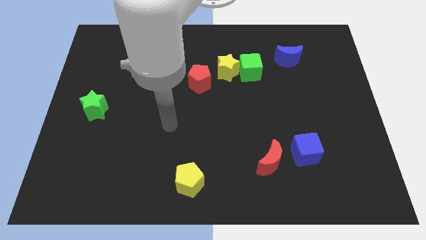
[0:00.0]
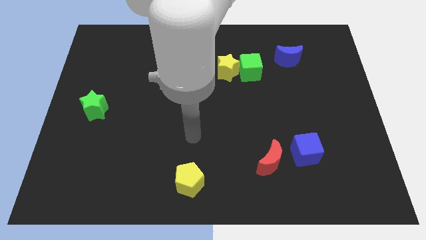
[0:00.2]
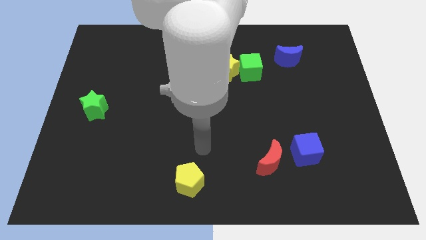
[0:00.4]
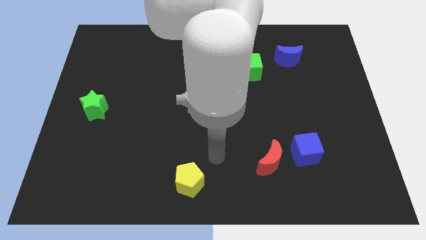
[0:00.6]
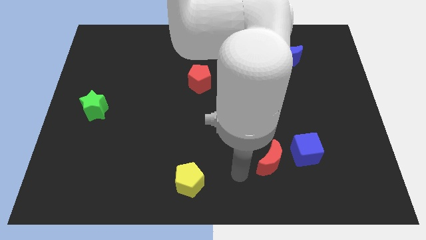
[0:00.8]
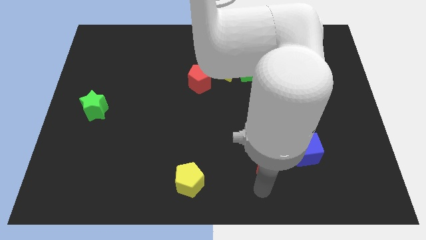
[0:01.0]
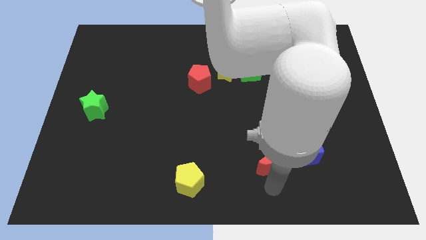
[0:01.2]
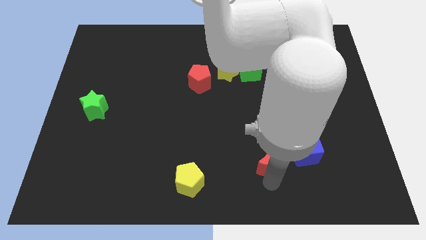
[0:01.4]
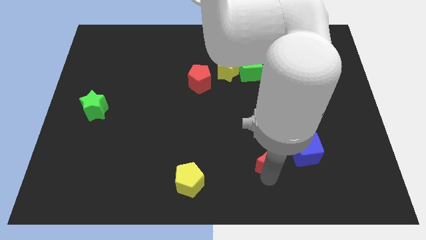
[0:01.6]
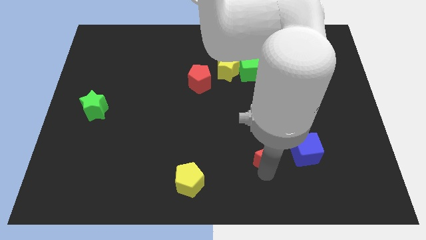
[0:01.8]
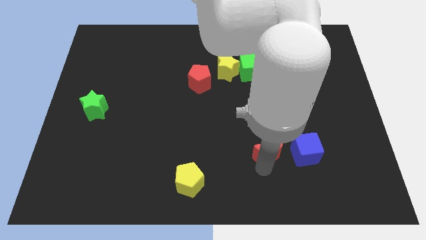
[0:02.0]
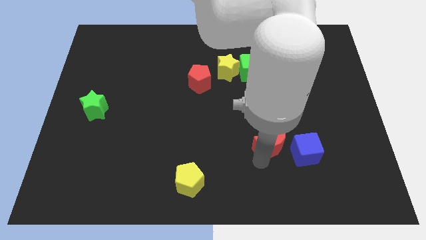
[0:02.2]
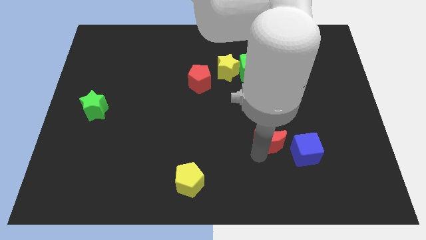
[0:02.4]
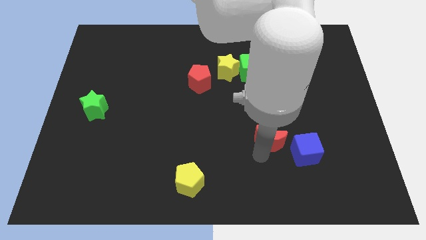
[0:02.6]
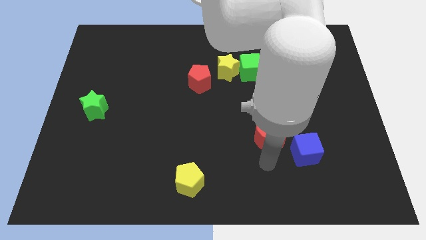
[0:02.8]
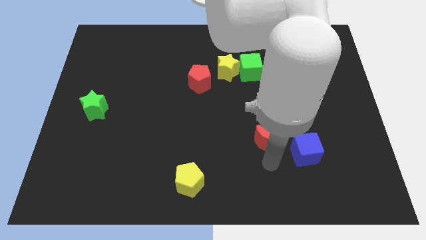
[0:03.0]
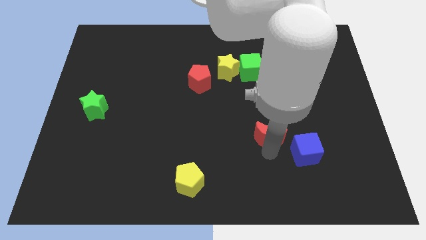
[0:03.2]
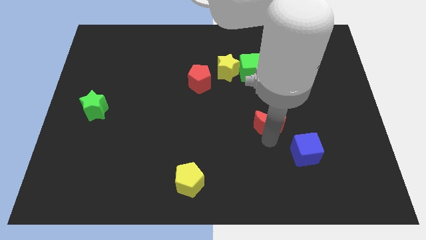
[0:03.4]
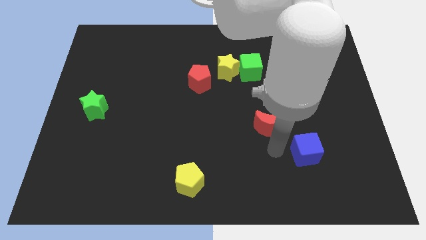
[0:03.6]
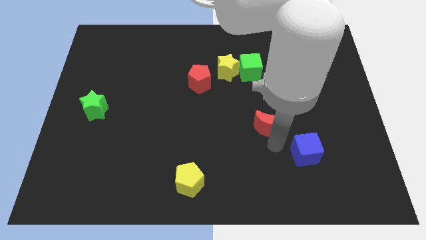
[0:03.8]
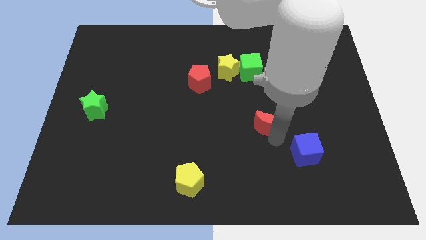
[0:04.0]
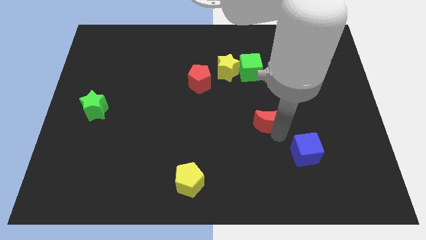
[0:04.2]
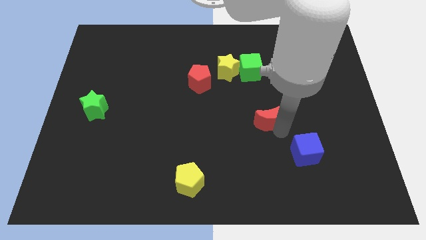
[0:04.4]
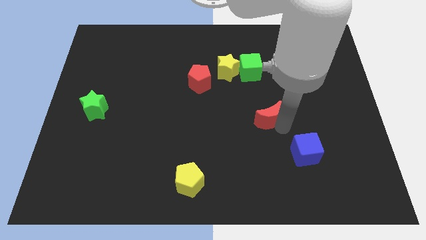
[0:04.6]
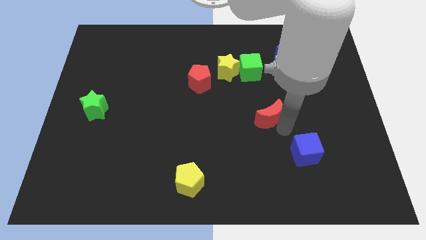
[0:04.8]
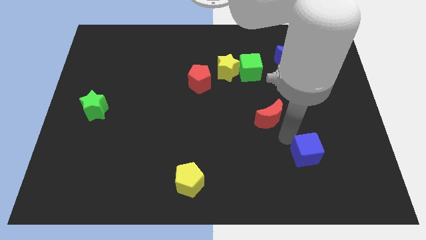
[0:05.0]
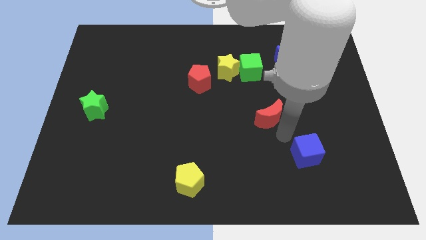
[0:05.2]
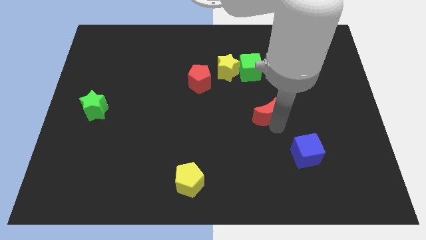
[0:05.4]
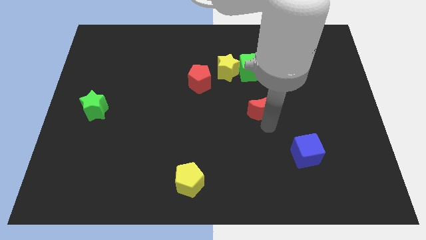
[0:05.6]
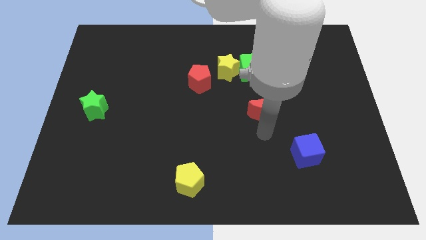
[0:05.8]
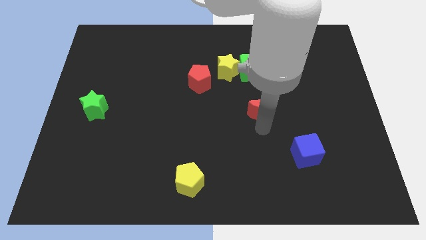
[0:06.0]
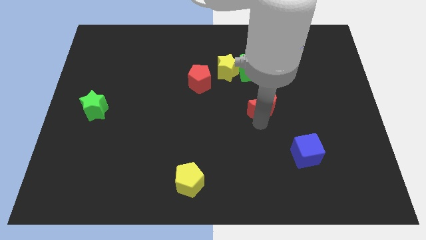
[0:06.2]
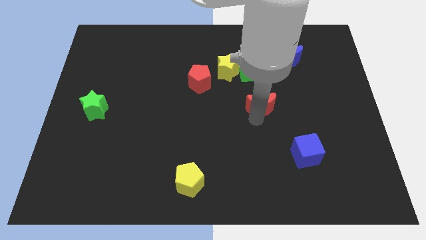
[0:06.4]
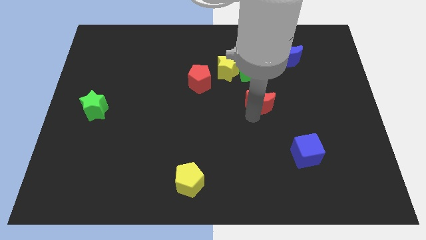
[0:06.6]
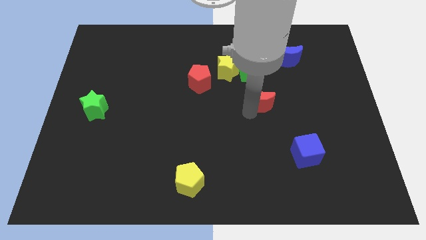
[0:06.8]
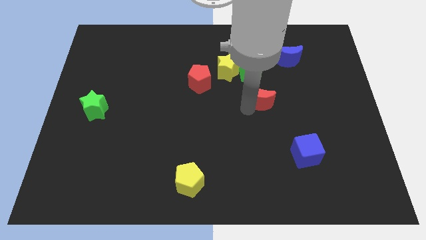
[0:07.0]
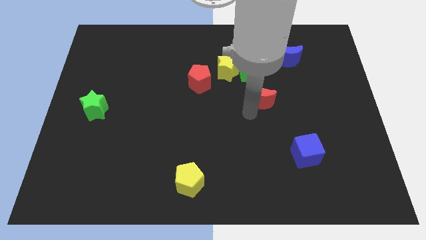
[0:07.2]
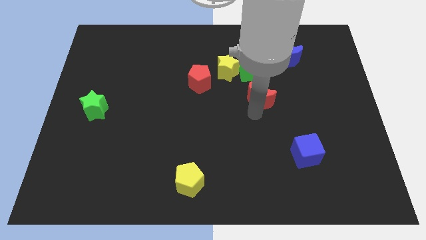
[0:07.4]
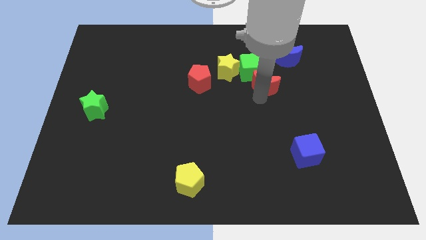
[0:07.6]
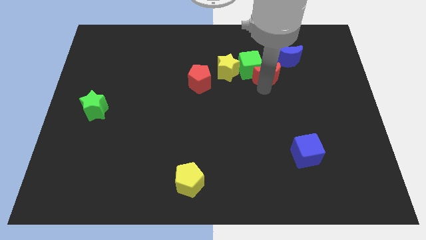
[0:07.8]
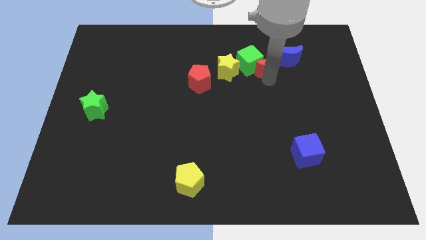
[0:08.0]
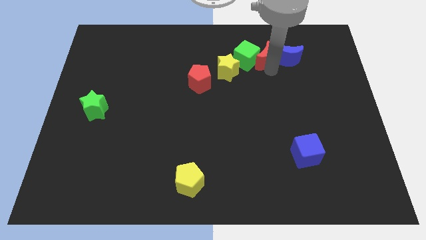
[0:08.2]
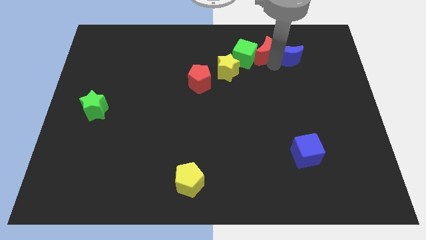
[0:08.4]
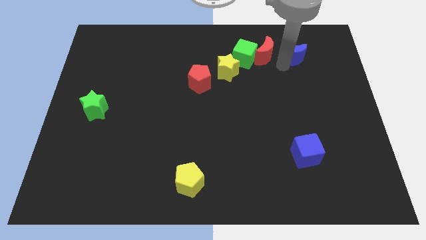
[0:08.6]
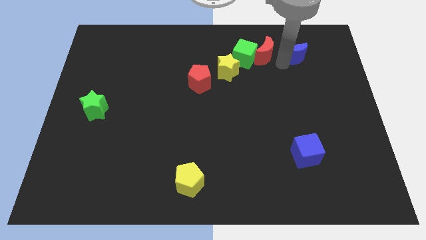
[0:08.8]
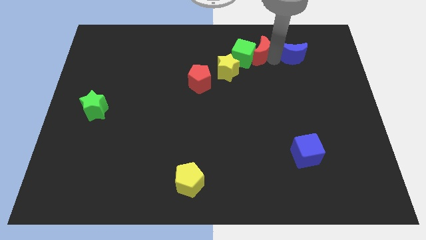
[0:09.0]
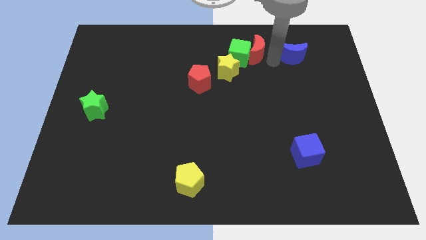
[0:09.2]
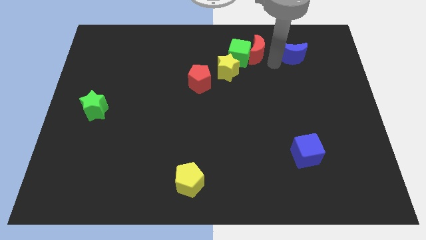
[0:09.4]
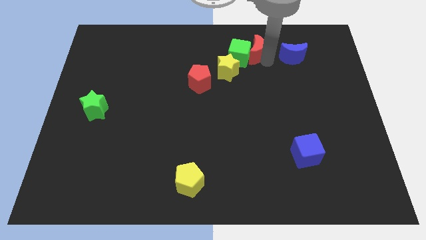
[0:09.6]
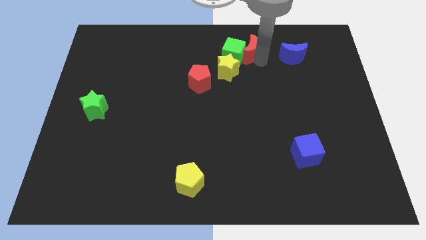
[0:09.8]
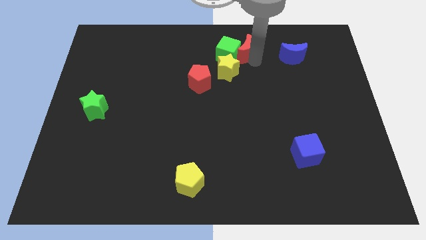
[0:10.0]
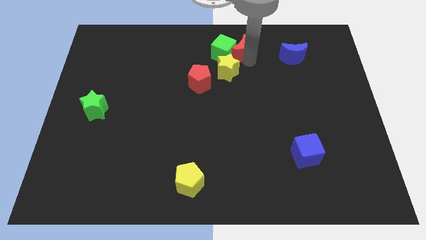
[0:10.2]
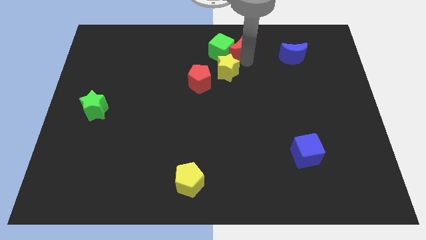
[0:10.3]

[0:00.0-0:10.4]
slide the red moon to the top side

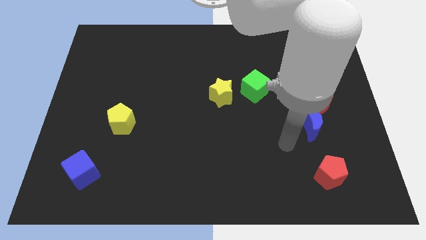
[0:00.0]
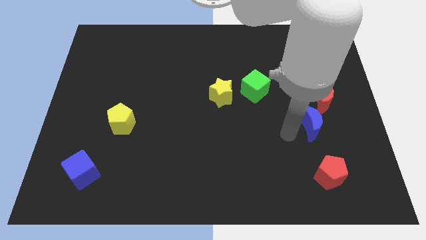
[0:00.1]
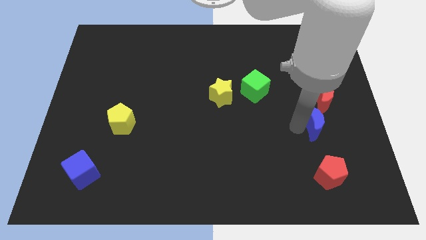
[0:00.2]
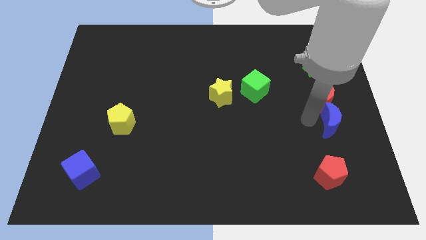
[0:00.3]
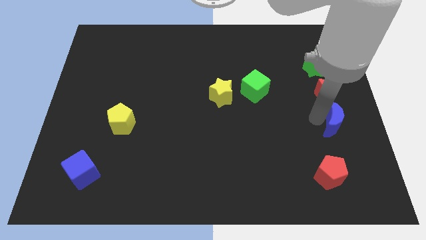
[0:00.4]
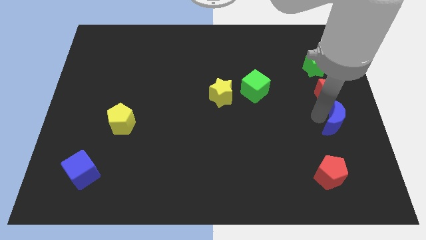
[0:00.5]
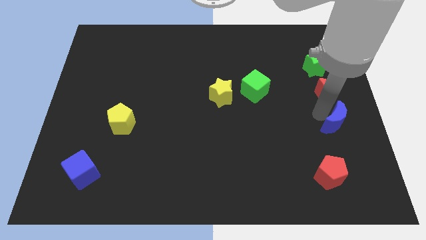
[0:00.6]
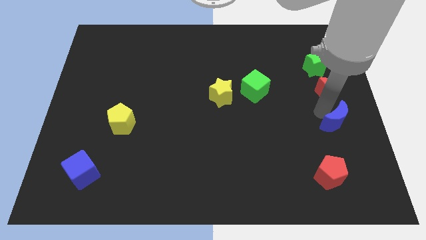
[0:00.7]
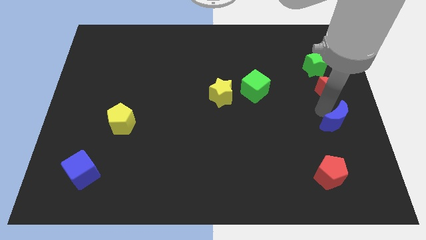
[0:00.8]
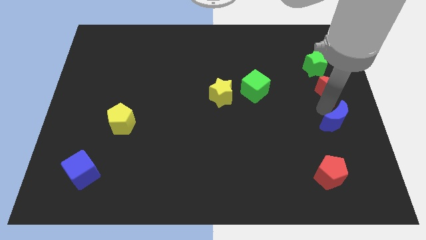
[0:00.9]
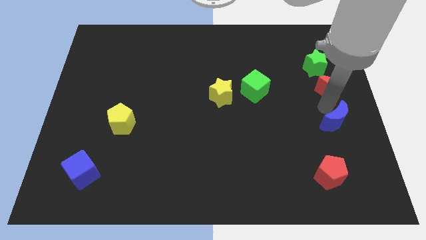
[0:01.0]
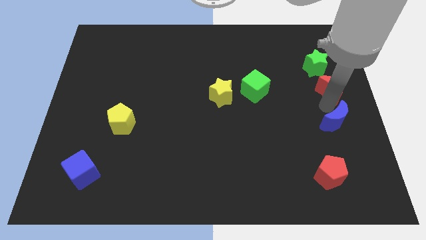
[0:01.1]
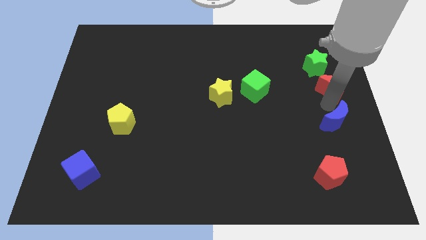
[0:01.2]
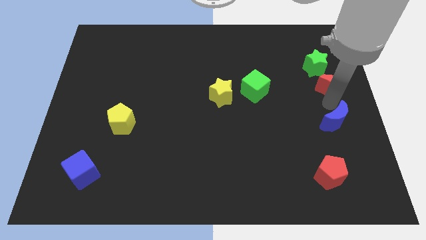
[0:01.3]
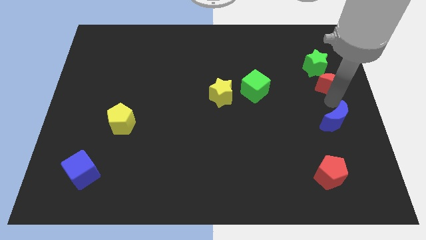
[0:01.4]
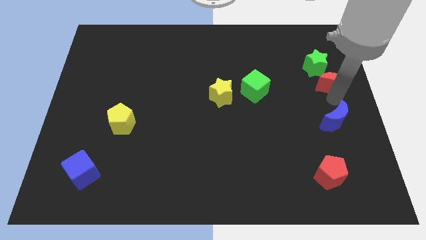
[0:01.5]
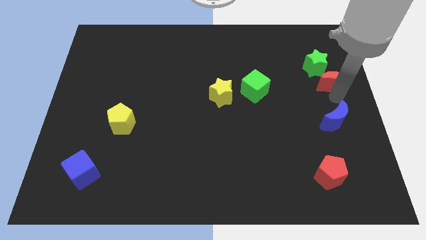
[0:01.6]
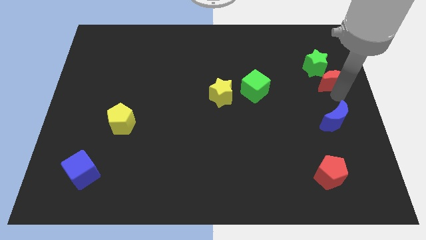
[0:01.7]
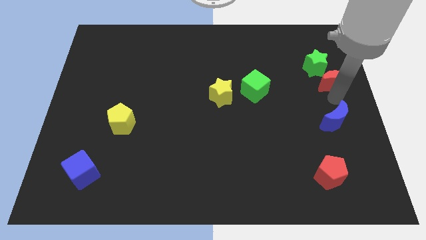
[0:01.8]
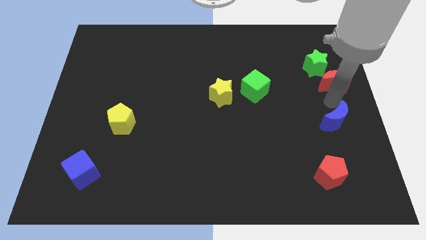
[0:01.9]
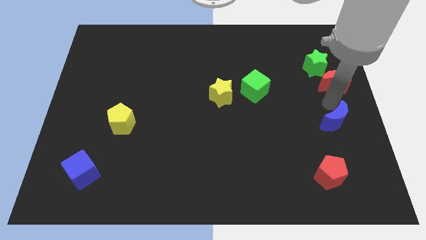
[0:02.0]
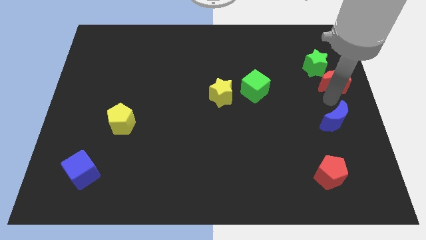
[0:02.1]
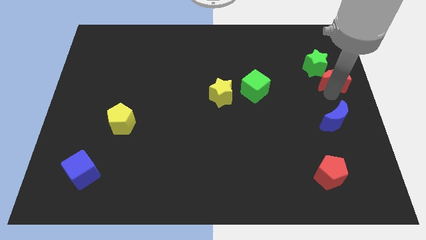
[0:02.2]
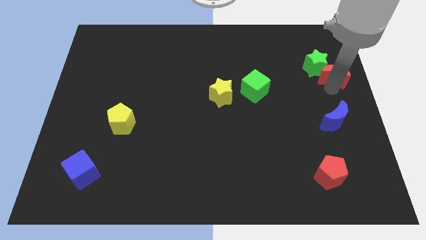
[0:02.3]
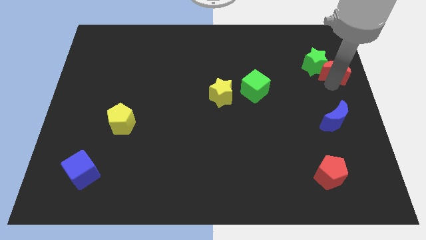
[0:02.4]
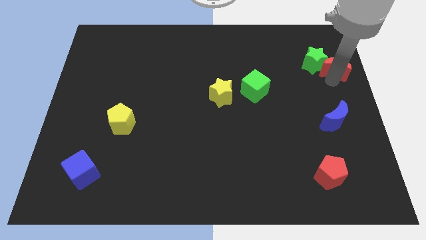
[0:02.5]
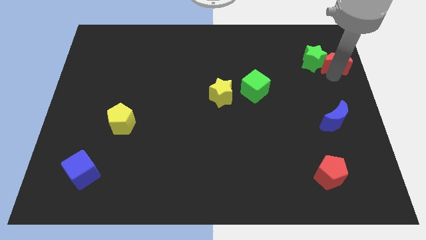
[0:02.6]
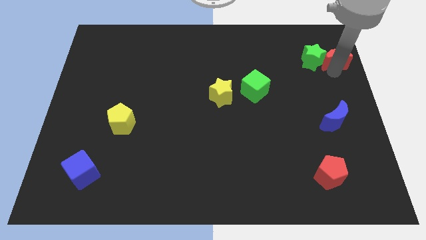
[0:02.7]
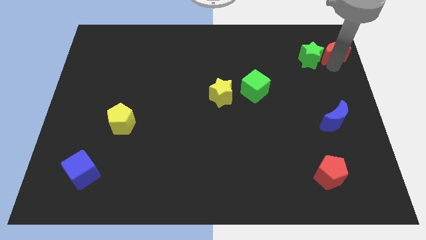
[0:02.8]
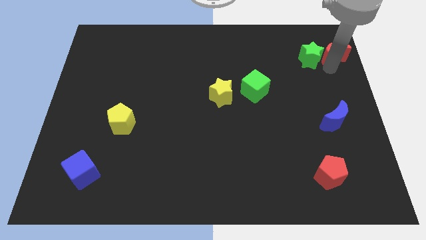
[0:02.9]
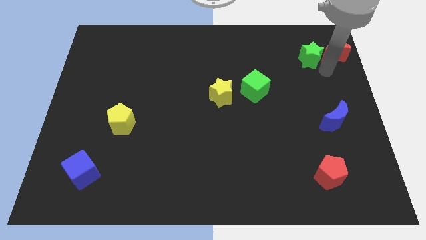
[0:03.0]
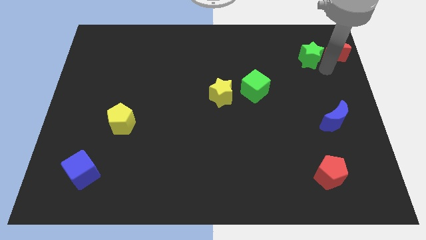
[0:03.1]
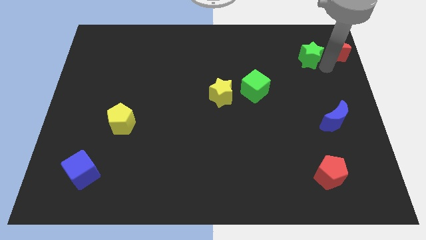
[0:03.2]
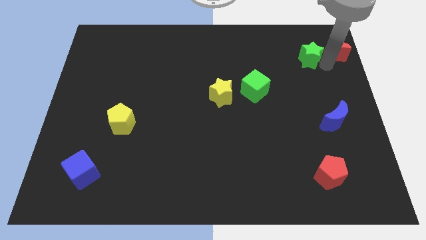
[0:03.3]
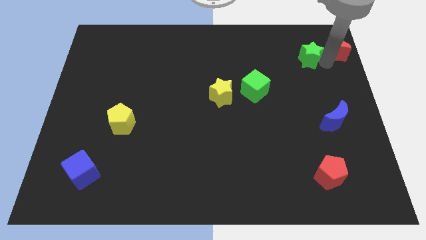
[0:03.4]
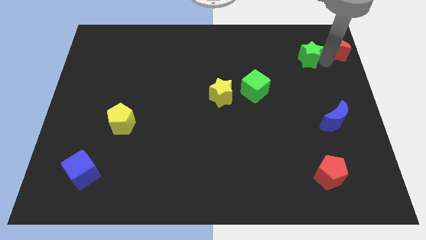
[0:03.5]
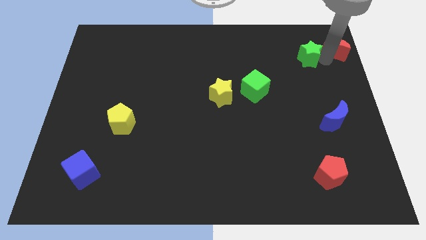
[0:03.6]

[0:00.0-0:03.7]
push the red moon to the upper right corner
